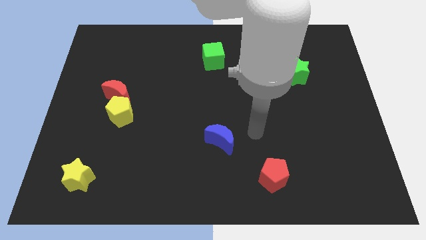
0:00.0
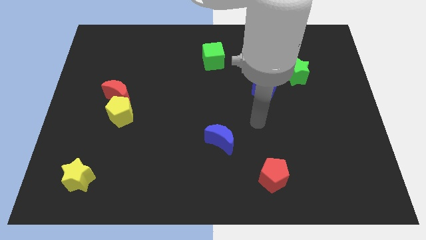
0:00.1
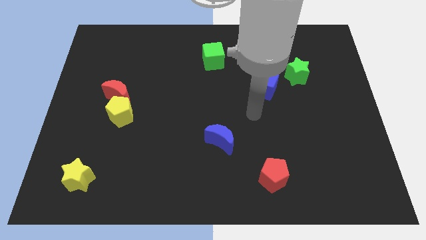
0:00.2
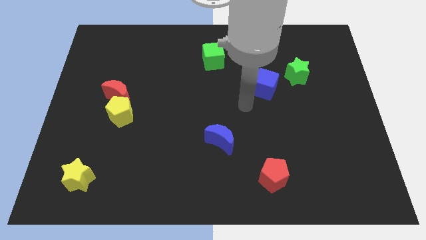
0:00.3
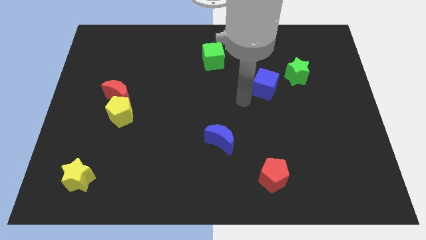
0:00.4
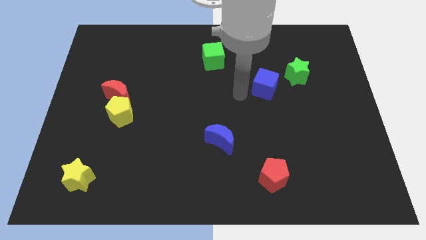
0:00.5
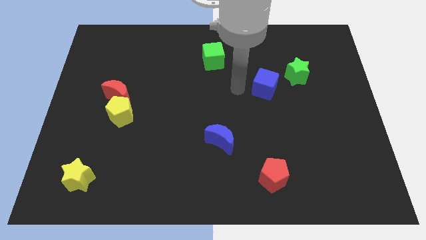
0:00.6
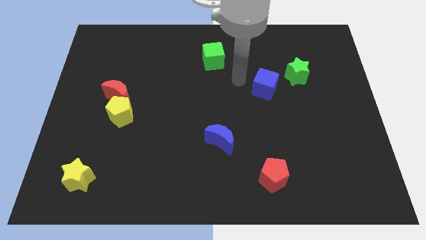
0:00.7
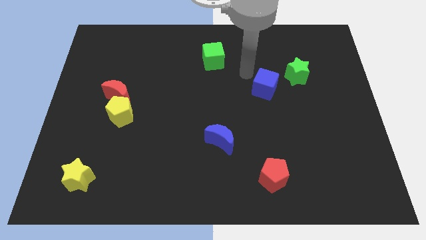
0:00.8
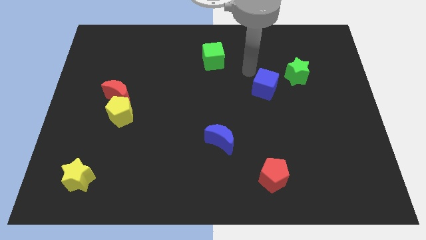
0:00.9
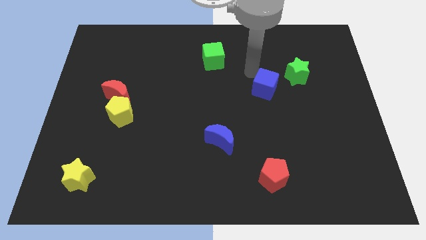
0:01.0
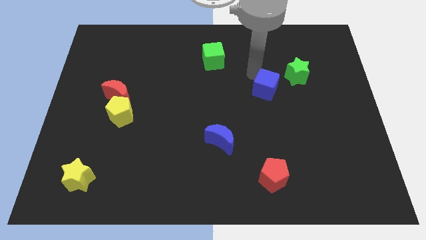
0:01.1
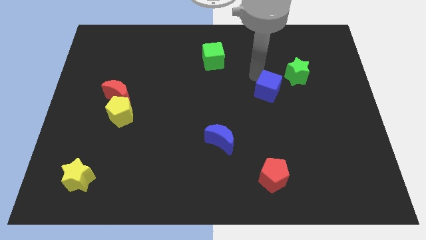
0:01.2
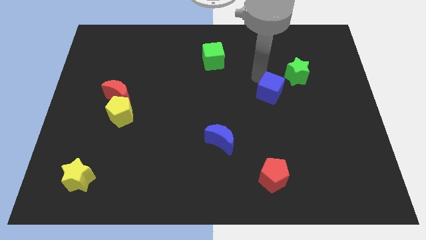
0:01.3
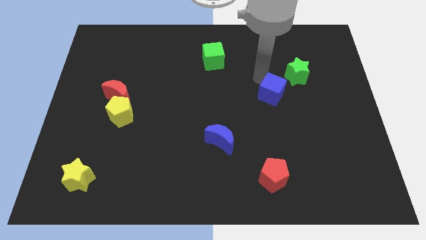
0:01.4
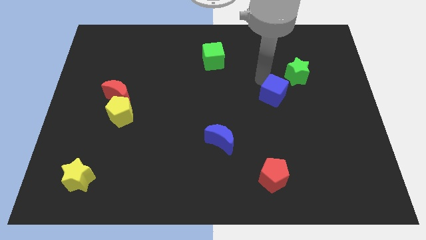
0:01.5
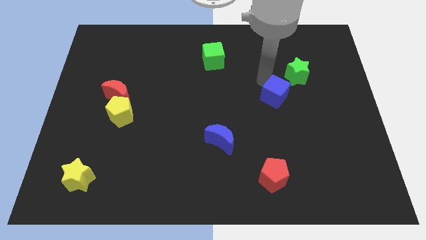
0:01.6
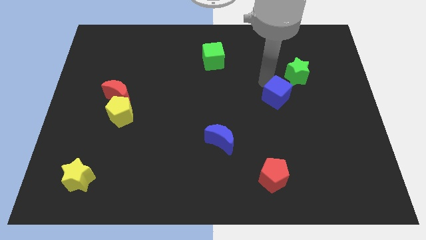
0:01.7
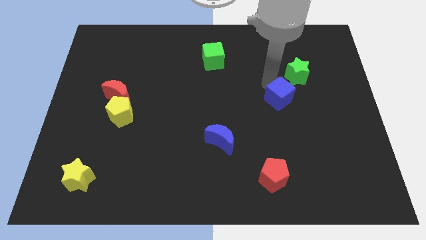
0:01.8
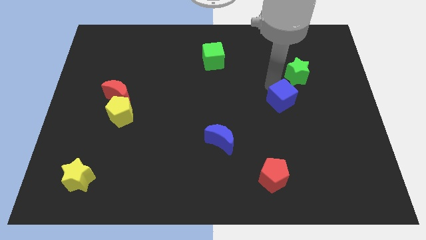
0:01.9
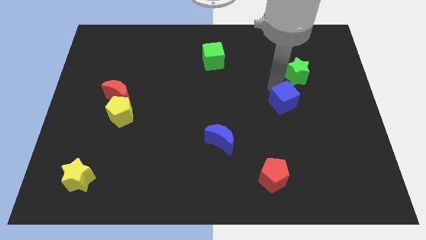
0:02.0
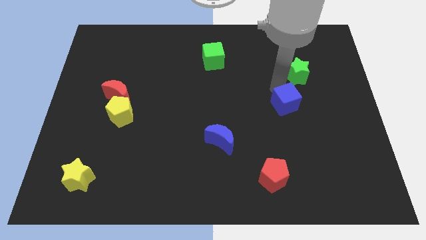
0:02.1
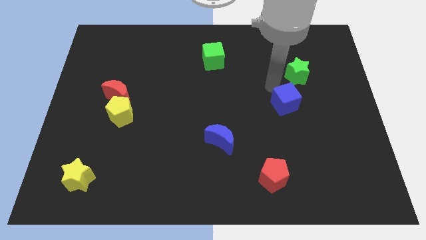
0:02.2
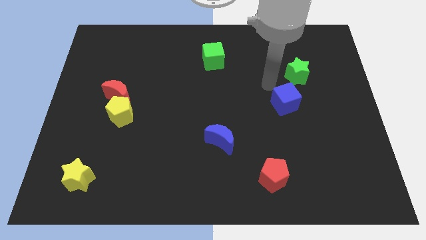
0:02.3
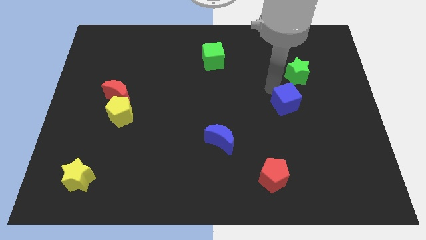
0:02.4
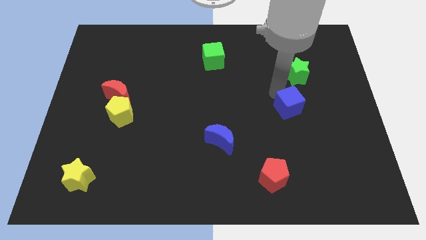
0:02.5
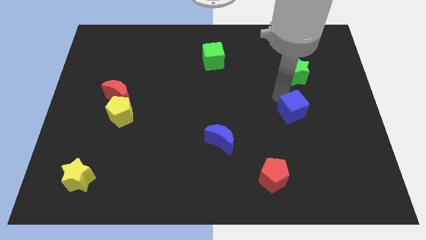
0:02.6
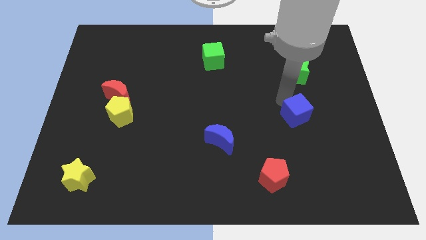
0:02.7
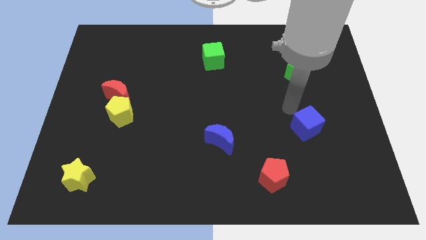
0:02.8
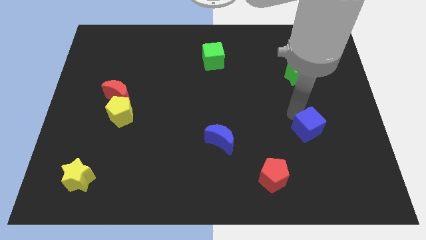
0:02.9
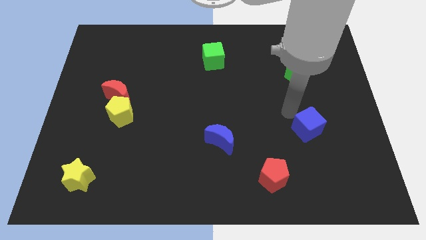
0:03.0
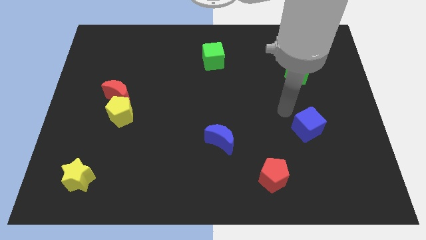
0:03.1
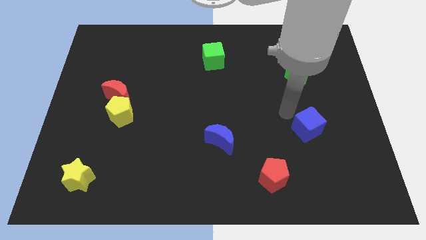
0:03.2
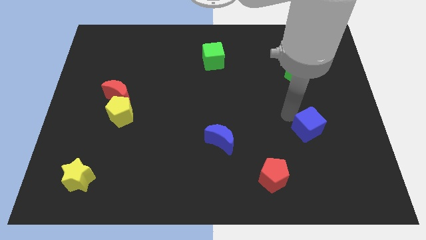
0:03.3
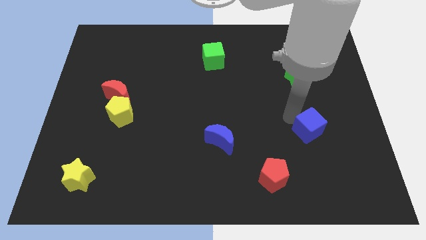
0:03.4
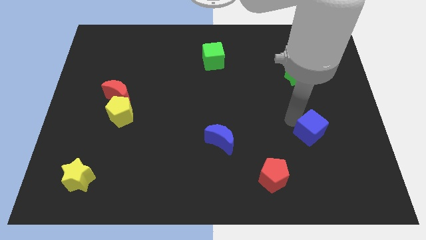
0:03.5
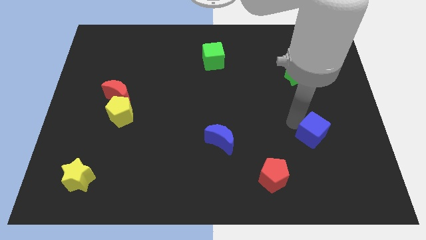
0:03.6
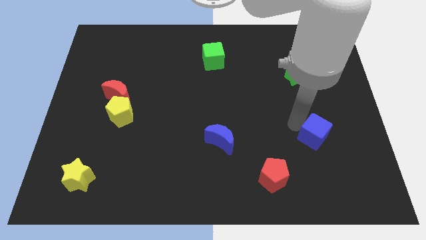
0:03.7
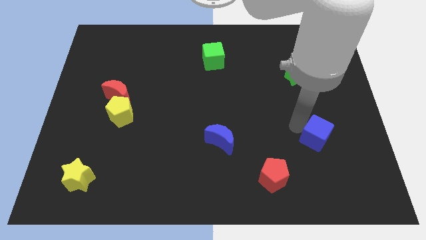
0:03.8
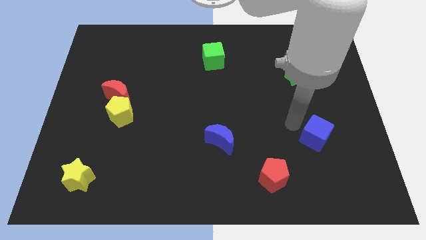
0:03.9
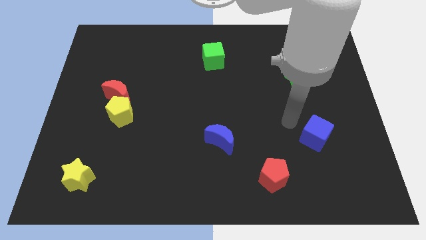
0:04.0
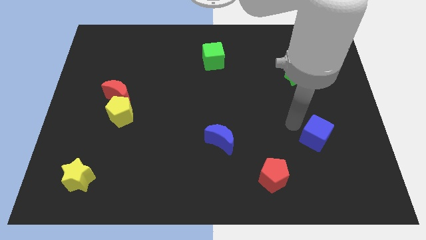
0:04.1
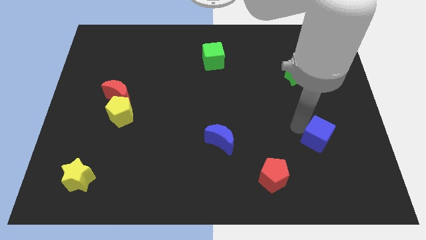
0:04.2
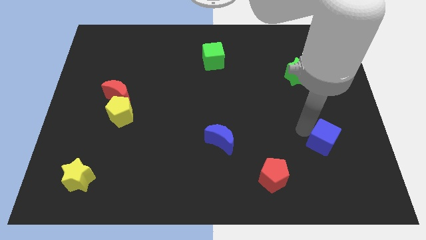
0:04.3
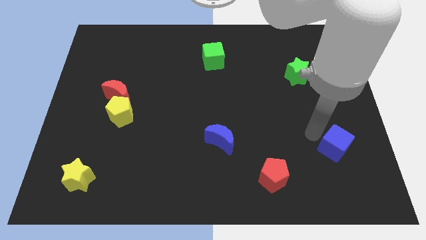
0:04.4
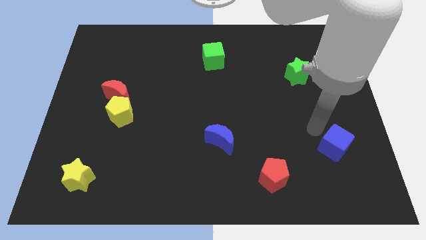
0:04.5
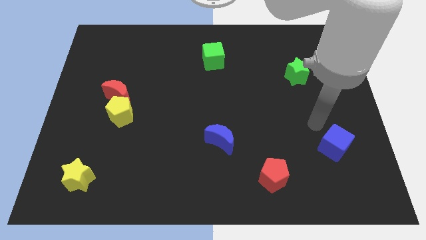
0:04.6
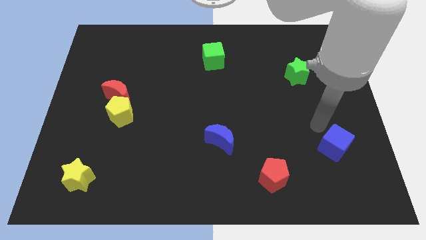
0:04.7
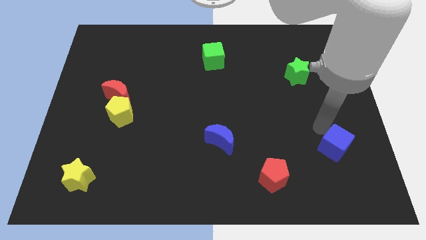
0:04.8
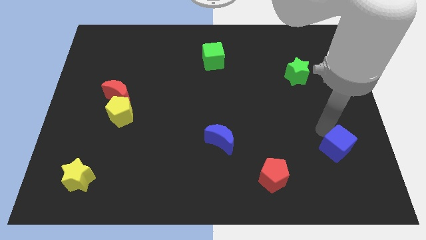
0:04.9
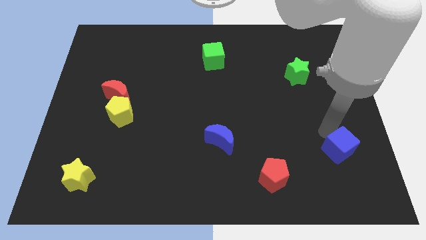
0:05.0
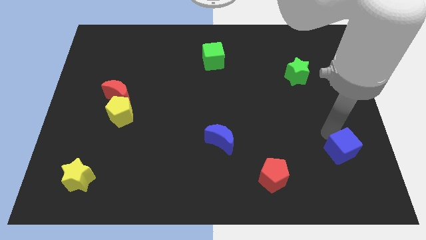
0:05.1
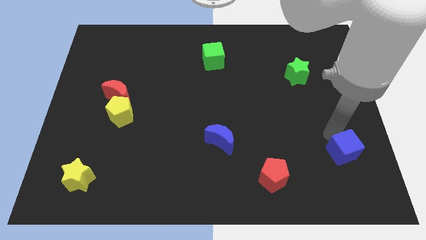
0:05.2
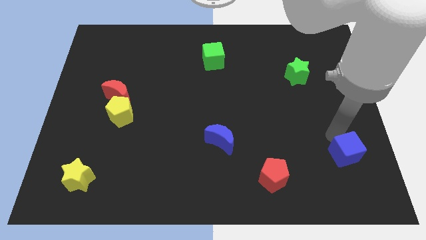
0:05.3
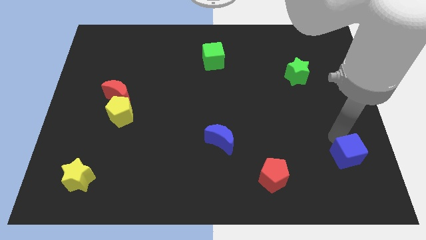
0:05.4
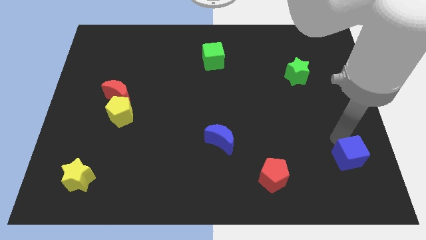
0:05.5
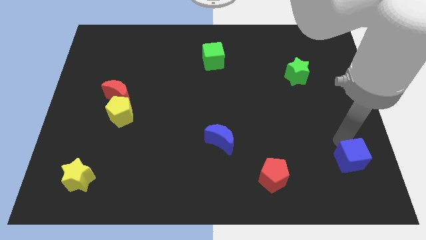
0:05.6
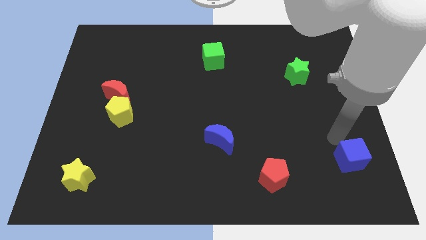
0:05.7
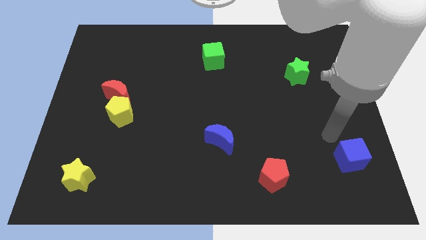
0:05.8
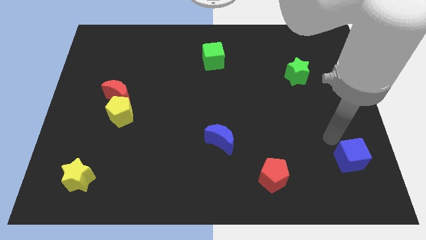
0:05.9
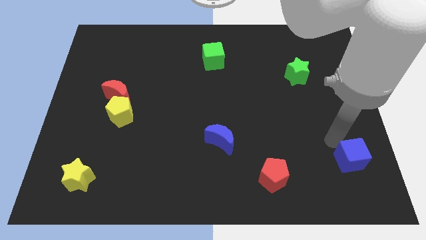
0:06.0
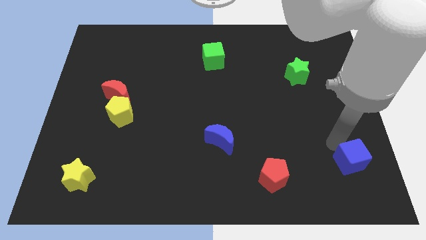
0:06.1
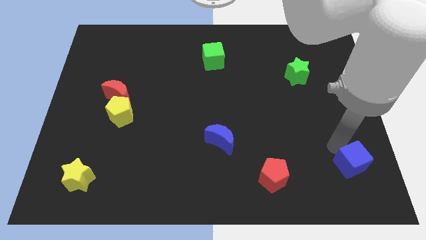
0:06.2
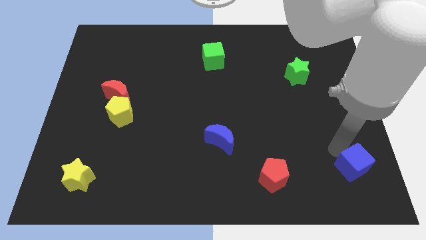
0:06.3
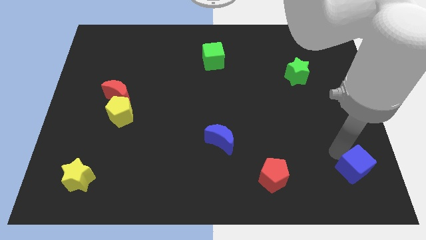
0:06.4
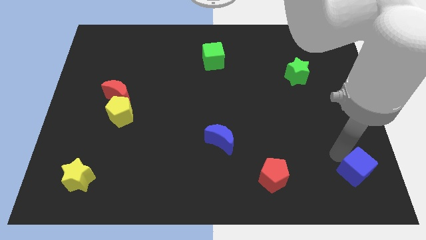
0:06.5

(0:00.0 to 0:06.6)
move the blue cube to the lower right corner

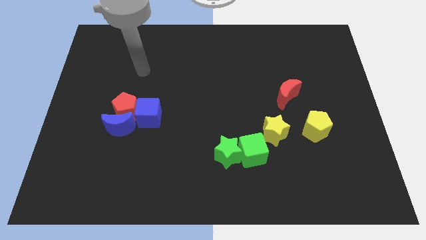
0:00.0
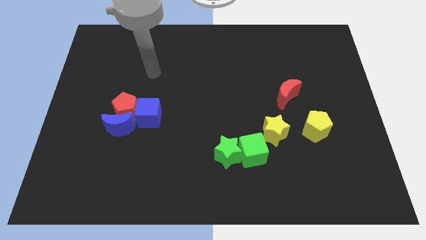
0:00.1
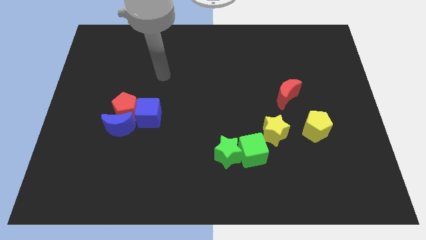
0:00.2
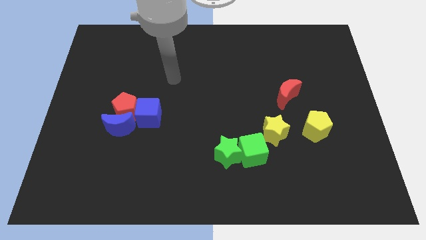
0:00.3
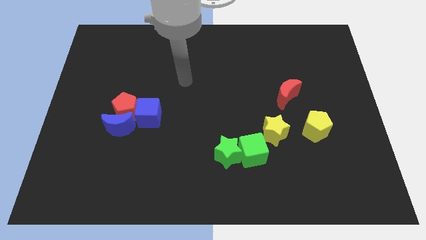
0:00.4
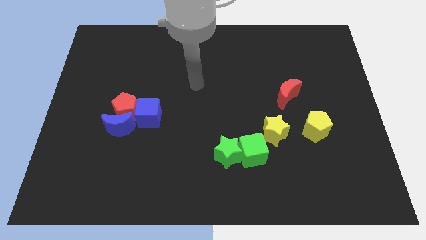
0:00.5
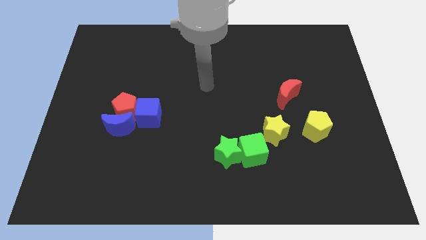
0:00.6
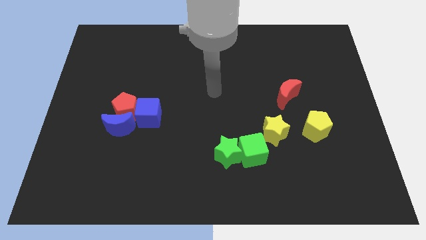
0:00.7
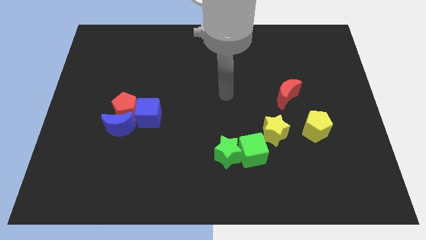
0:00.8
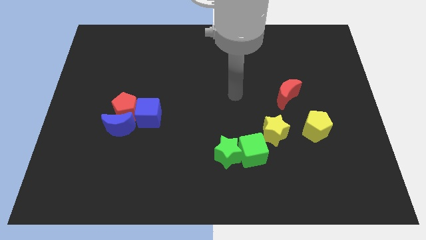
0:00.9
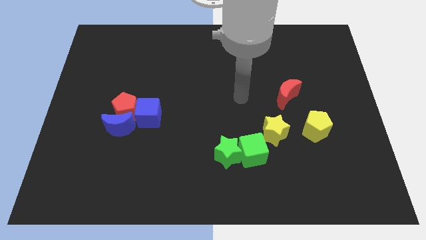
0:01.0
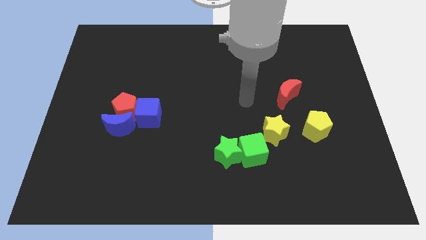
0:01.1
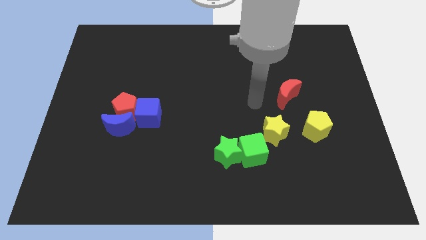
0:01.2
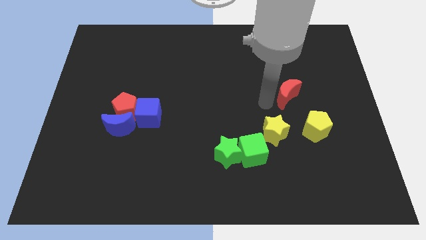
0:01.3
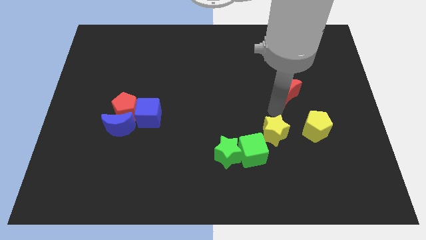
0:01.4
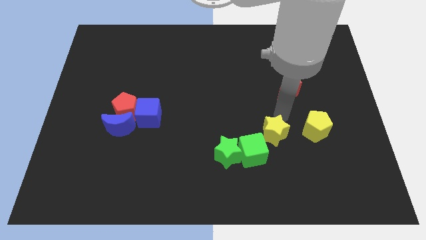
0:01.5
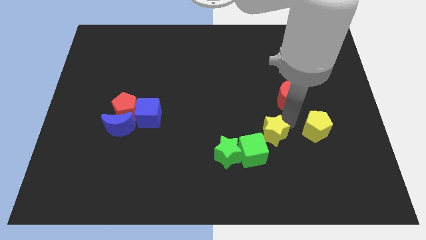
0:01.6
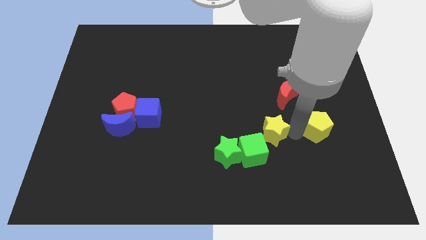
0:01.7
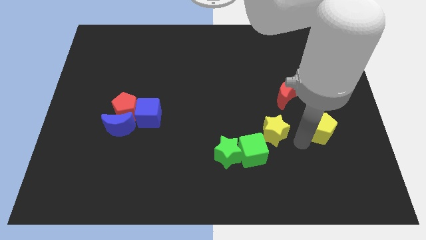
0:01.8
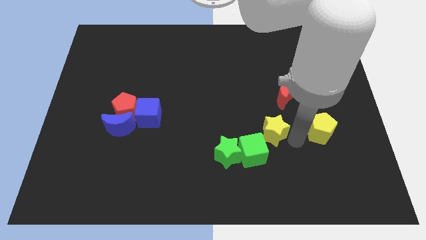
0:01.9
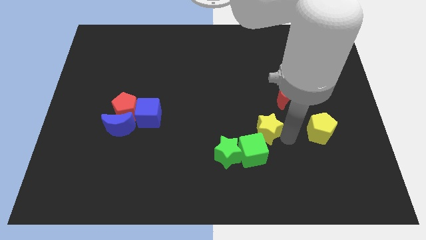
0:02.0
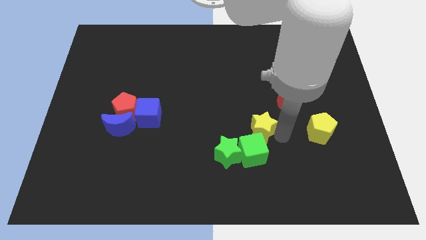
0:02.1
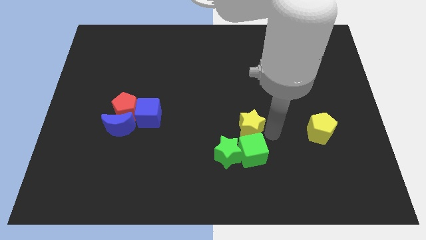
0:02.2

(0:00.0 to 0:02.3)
put the yellow star to the center
